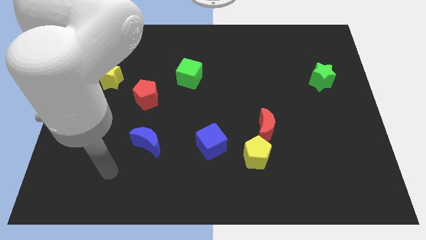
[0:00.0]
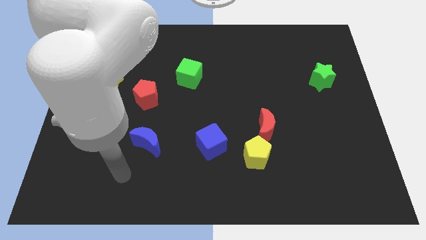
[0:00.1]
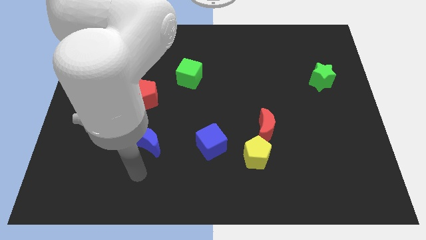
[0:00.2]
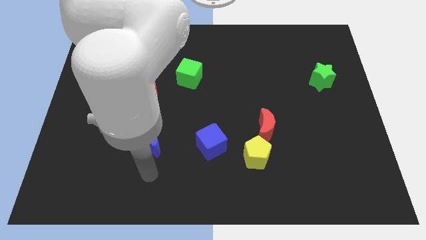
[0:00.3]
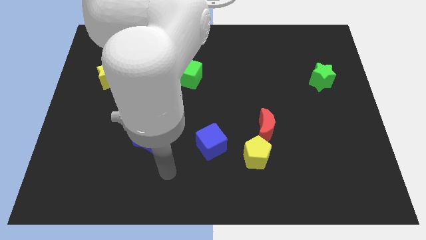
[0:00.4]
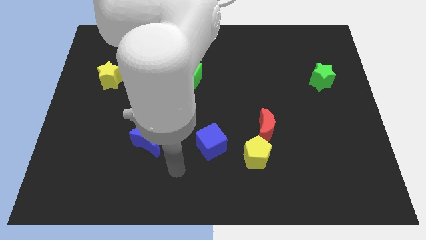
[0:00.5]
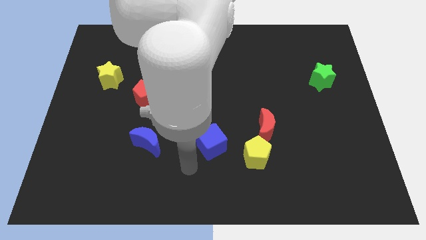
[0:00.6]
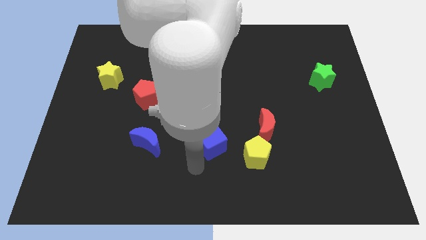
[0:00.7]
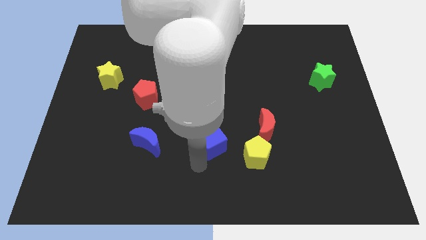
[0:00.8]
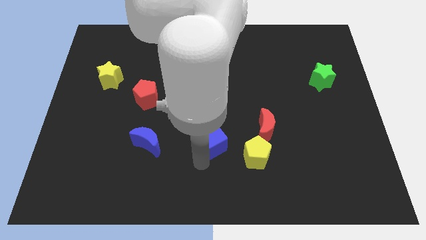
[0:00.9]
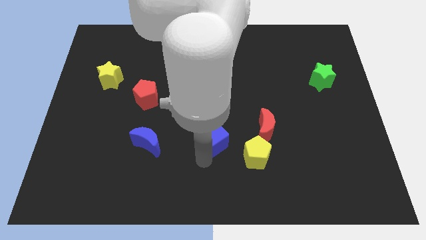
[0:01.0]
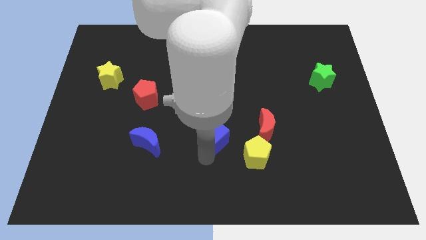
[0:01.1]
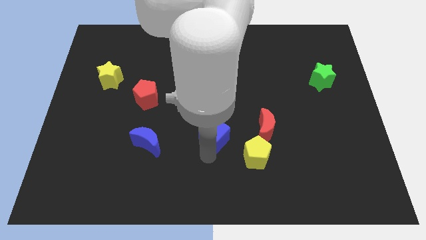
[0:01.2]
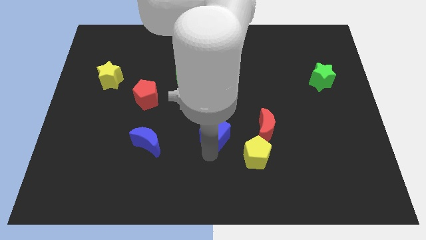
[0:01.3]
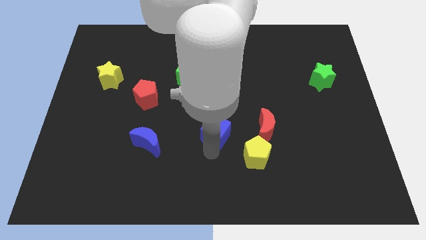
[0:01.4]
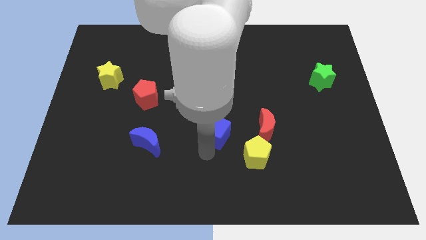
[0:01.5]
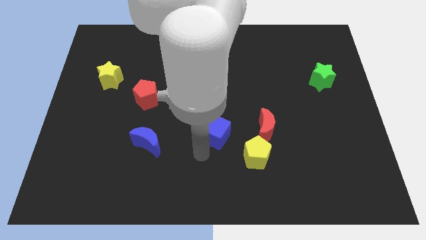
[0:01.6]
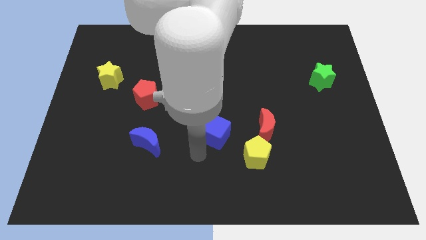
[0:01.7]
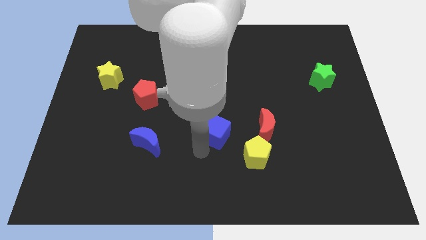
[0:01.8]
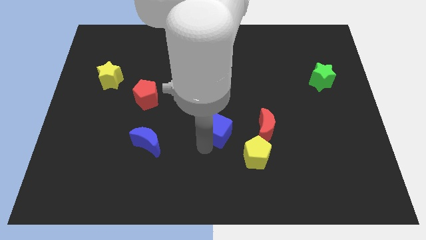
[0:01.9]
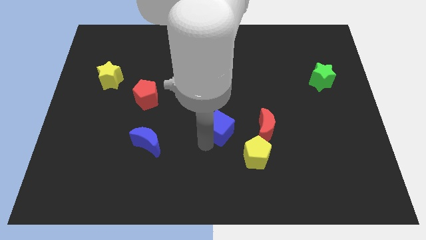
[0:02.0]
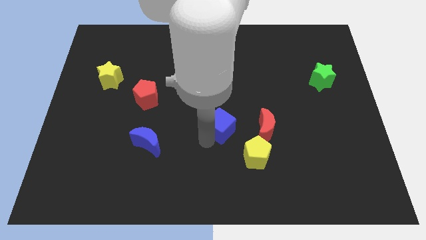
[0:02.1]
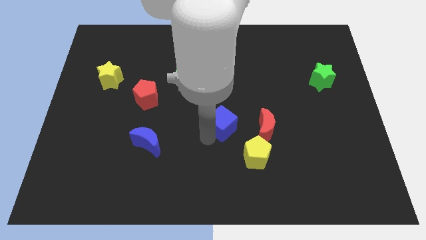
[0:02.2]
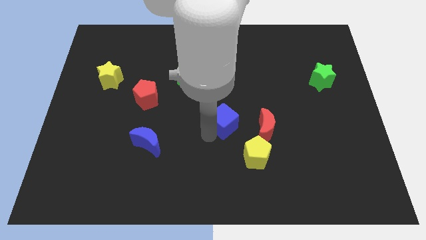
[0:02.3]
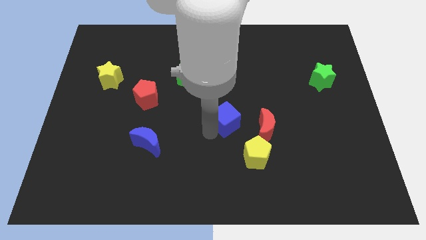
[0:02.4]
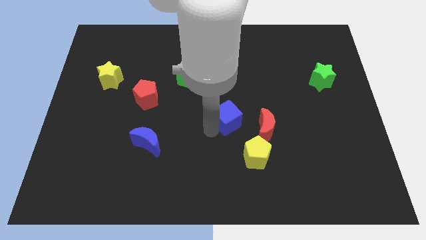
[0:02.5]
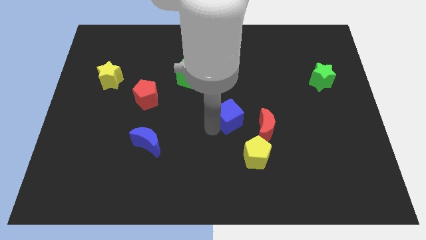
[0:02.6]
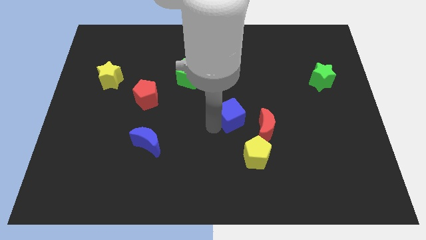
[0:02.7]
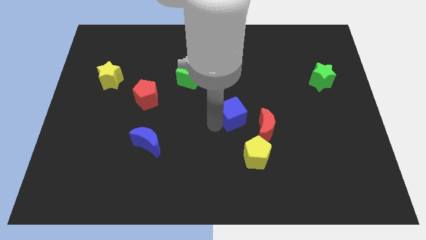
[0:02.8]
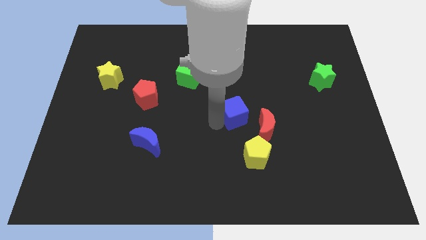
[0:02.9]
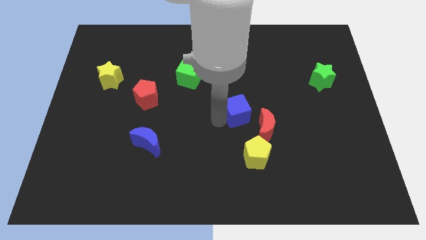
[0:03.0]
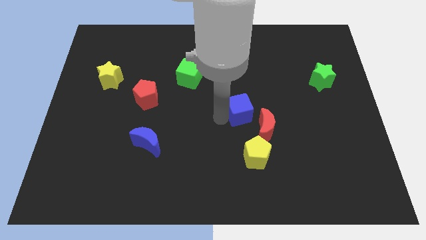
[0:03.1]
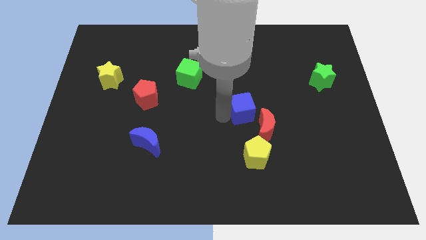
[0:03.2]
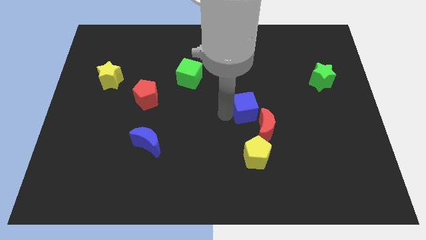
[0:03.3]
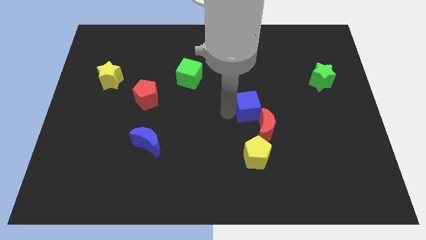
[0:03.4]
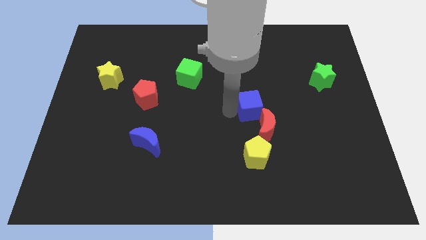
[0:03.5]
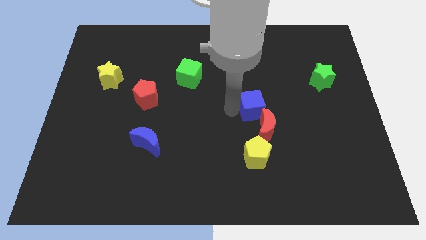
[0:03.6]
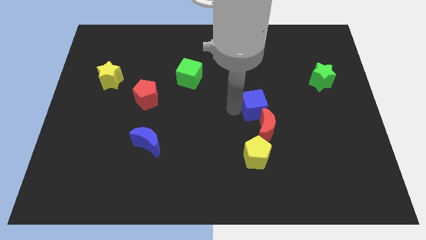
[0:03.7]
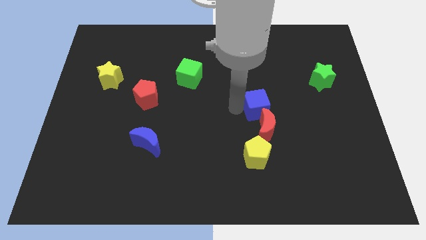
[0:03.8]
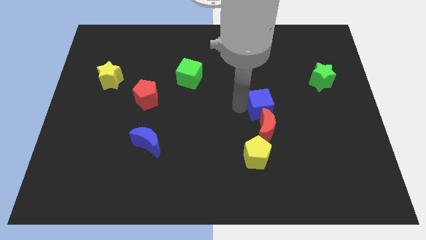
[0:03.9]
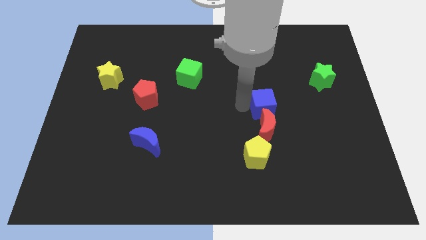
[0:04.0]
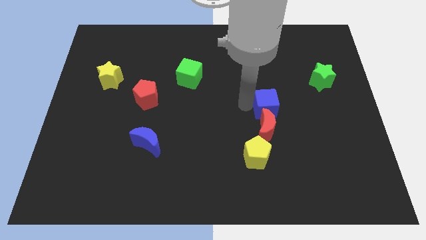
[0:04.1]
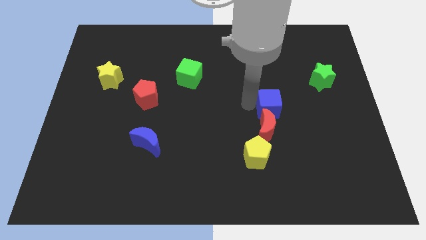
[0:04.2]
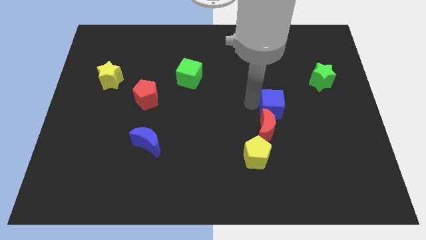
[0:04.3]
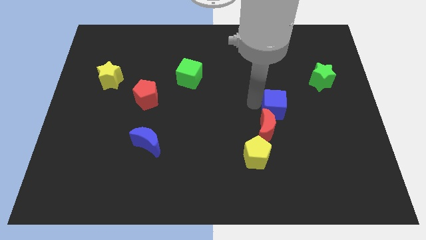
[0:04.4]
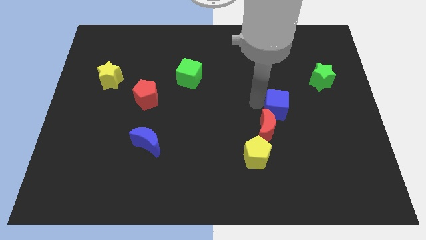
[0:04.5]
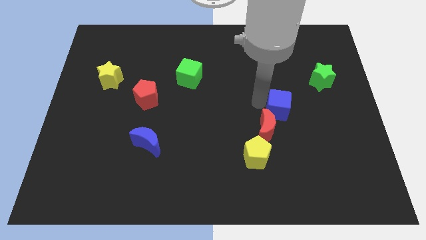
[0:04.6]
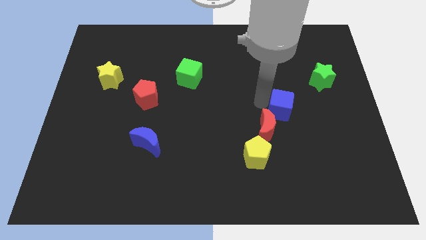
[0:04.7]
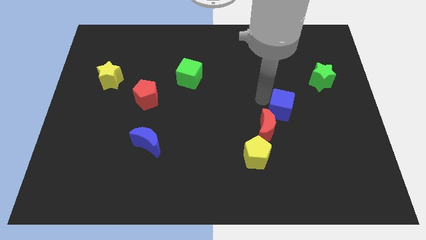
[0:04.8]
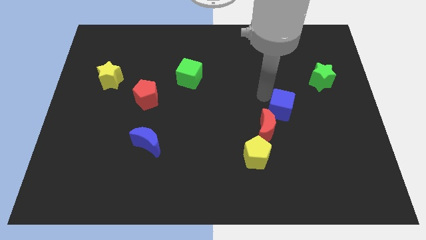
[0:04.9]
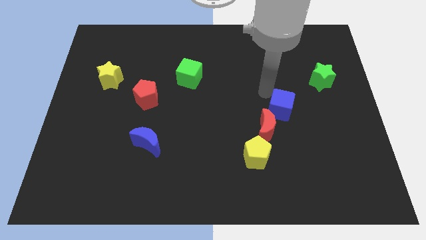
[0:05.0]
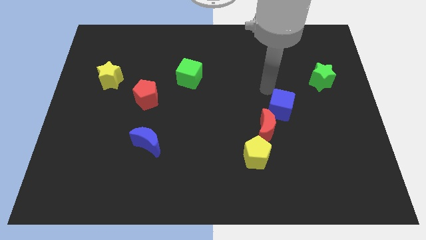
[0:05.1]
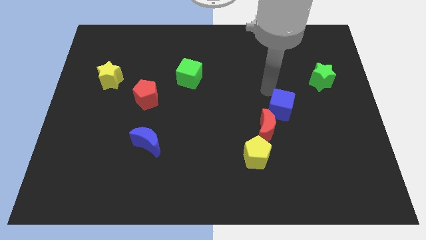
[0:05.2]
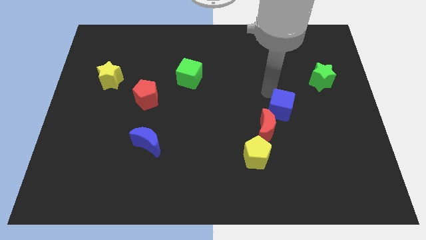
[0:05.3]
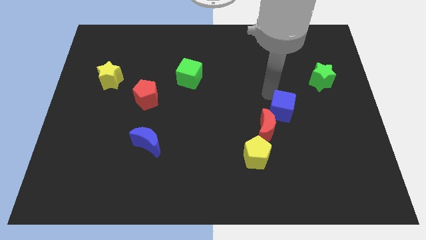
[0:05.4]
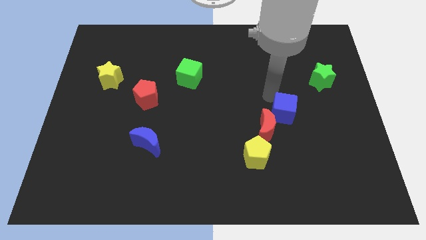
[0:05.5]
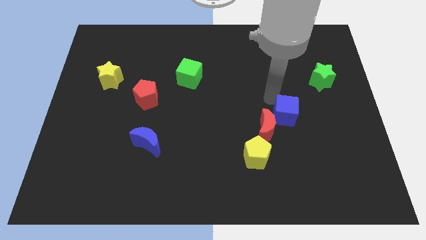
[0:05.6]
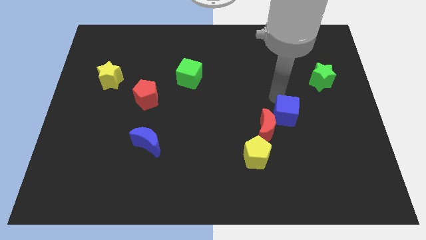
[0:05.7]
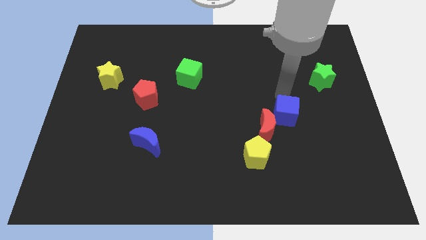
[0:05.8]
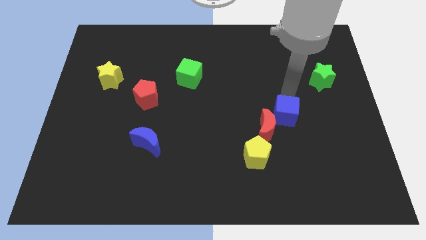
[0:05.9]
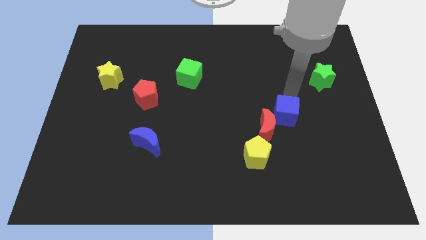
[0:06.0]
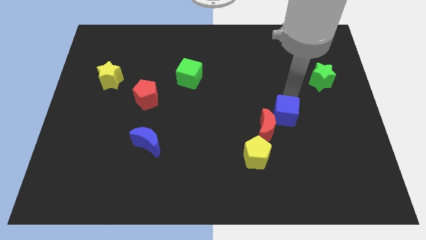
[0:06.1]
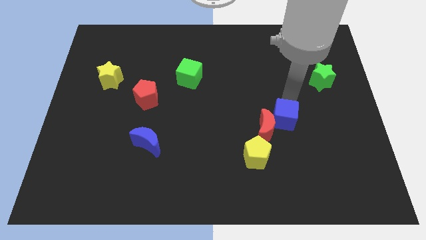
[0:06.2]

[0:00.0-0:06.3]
put the blue cube to the top right of the yellow pentagon

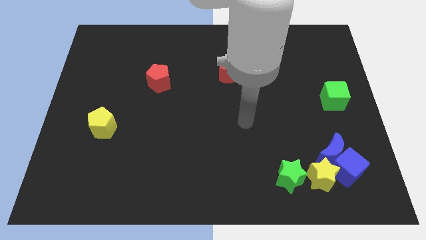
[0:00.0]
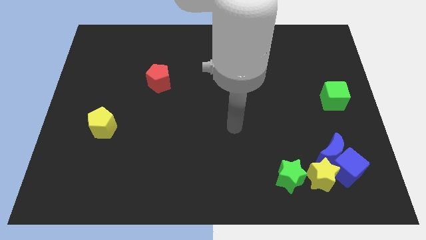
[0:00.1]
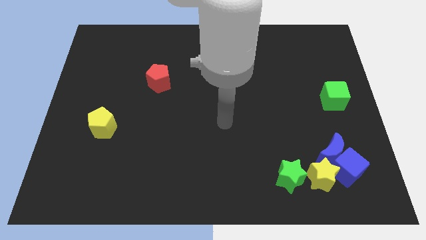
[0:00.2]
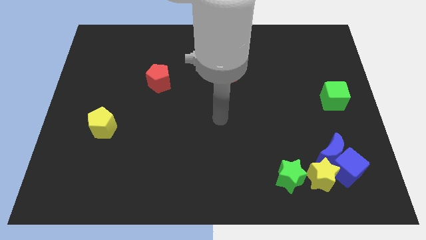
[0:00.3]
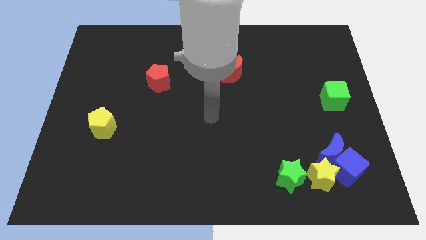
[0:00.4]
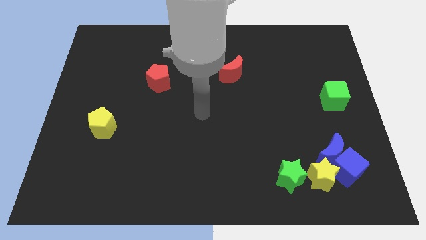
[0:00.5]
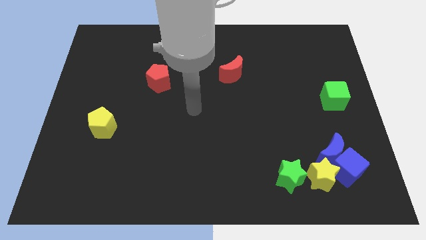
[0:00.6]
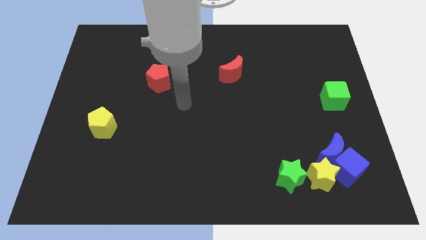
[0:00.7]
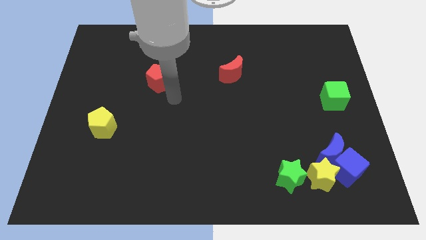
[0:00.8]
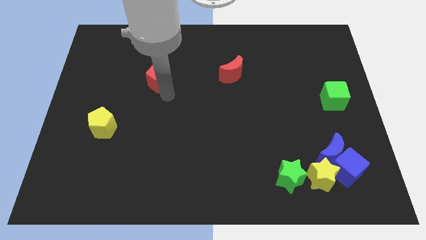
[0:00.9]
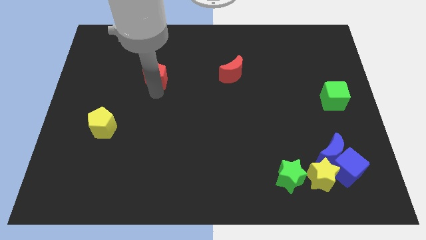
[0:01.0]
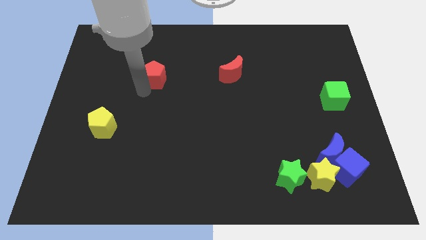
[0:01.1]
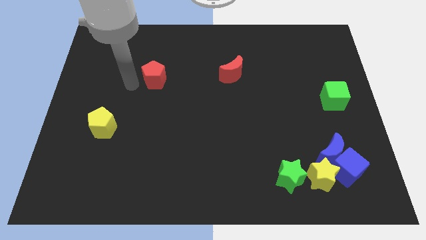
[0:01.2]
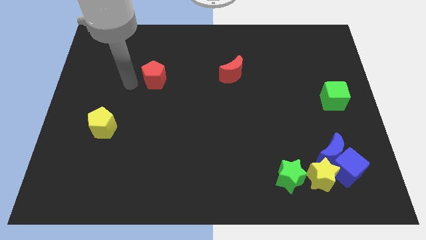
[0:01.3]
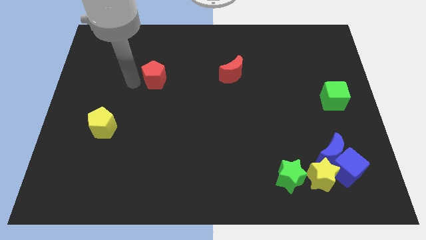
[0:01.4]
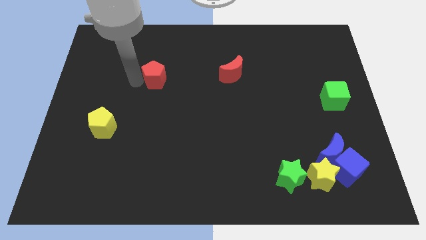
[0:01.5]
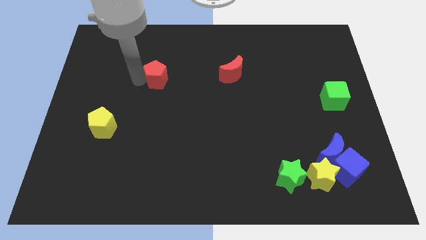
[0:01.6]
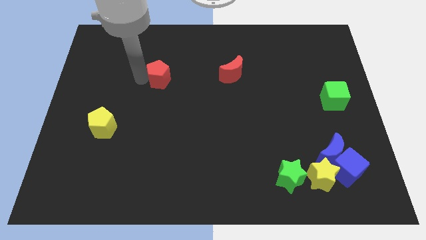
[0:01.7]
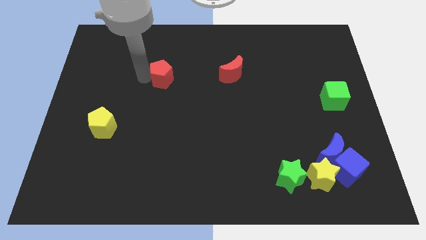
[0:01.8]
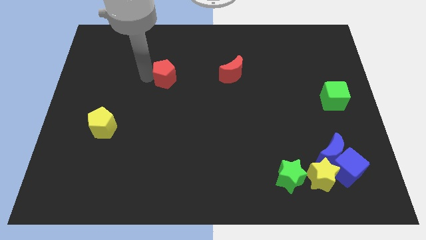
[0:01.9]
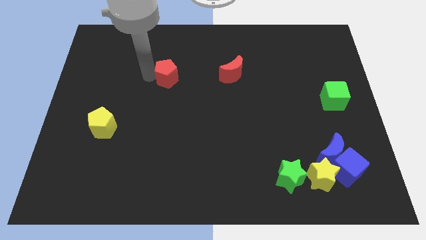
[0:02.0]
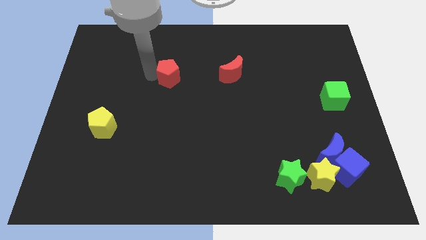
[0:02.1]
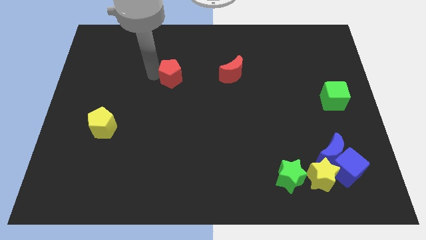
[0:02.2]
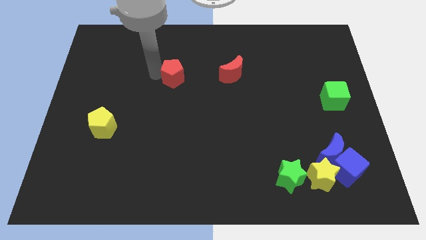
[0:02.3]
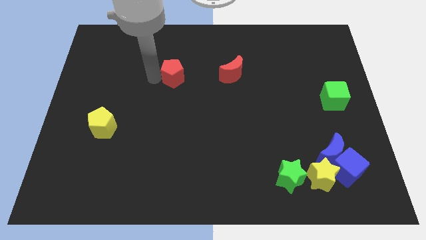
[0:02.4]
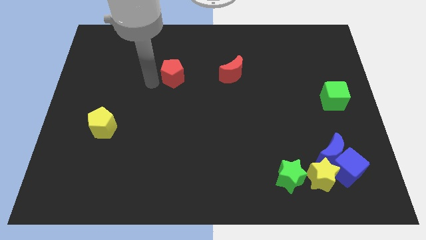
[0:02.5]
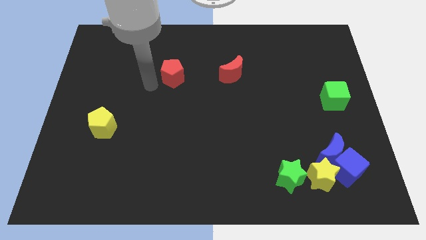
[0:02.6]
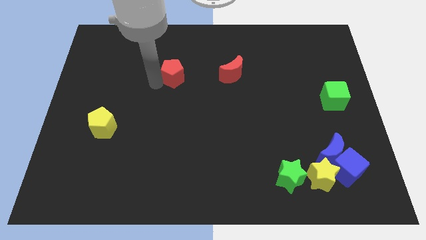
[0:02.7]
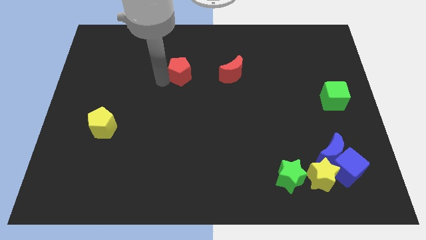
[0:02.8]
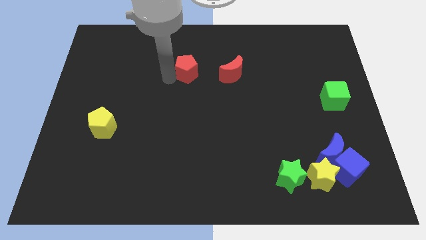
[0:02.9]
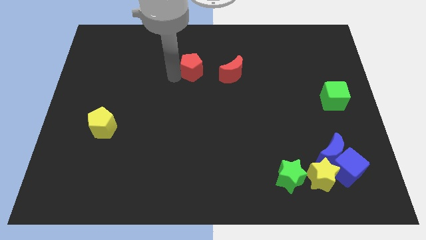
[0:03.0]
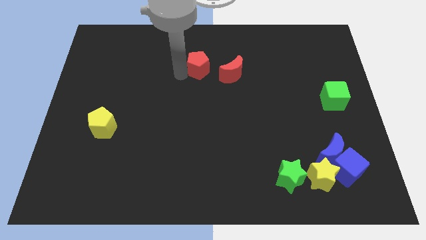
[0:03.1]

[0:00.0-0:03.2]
slide the red pentagon to the top left of the red moon
